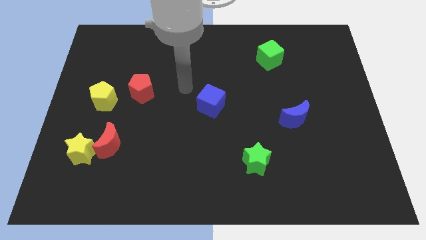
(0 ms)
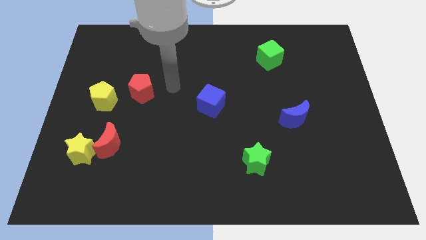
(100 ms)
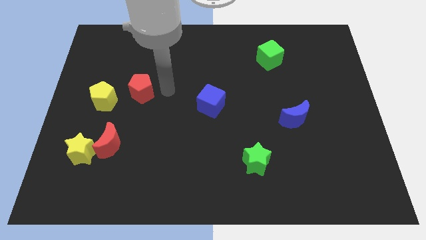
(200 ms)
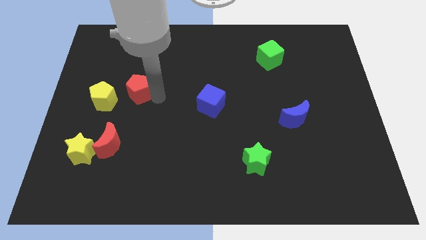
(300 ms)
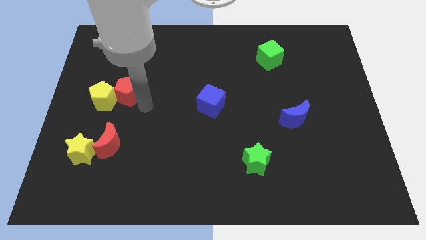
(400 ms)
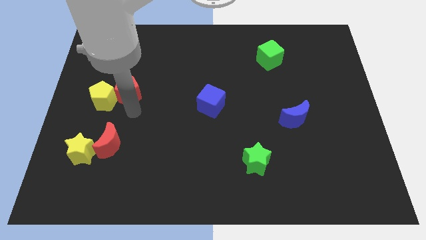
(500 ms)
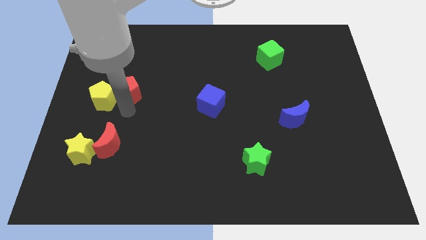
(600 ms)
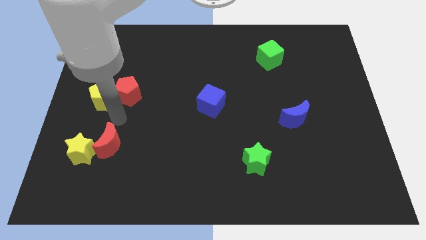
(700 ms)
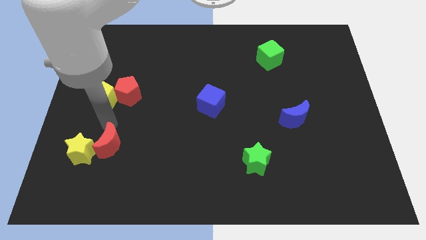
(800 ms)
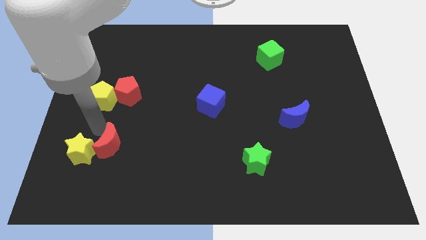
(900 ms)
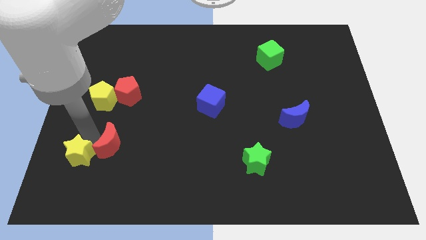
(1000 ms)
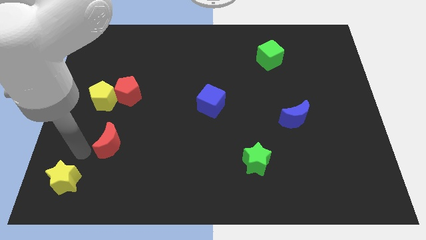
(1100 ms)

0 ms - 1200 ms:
move the red moon away from the yellow star

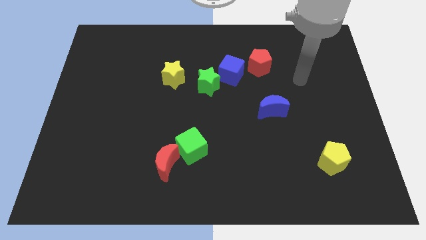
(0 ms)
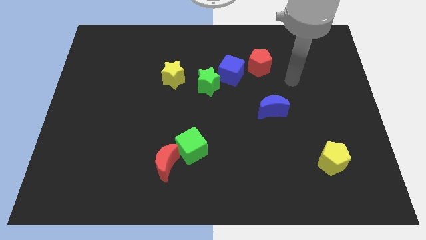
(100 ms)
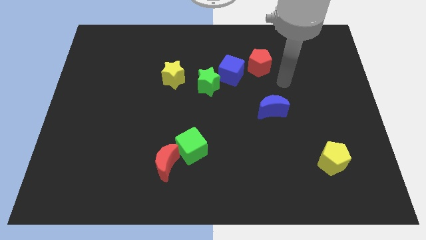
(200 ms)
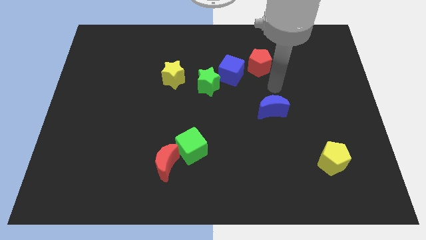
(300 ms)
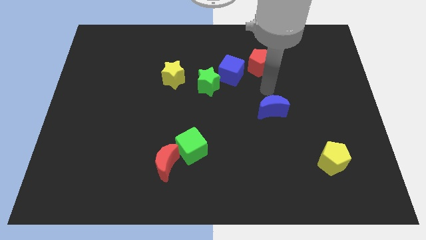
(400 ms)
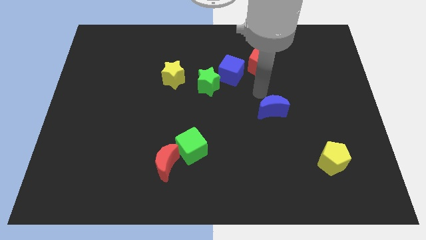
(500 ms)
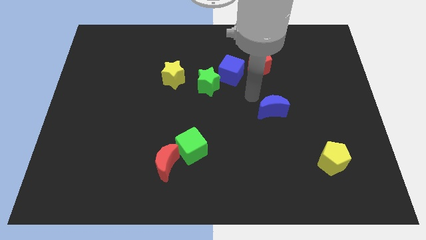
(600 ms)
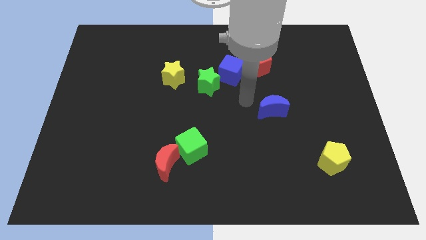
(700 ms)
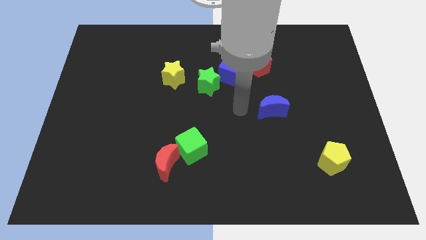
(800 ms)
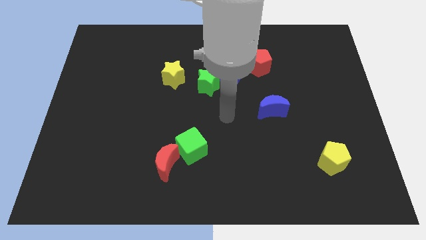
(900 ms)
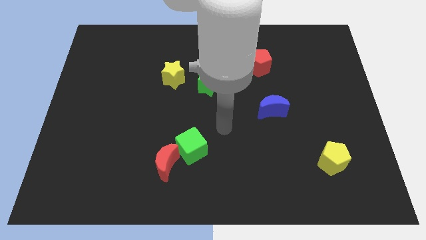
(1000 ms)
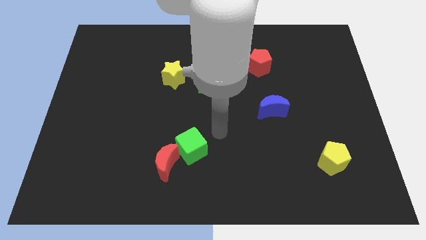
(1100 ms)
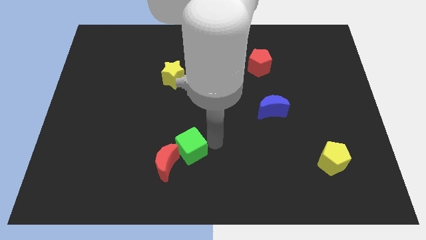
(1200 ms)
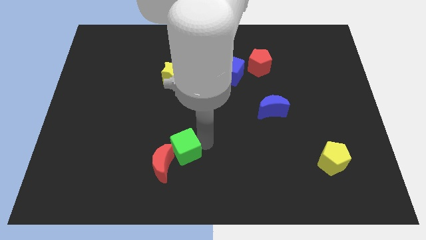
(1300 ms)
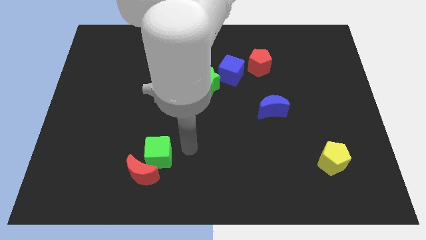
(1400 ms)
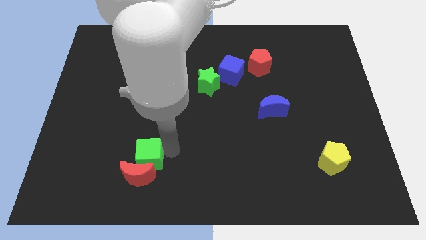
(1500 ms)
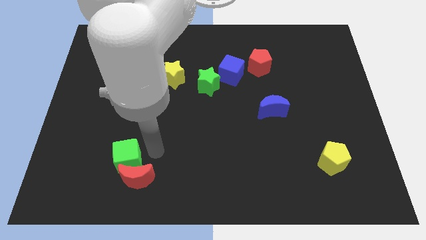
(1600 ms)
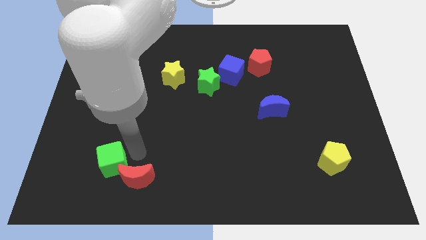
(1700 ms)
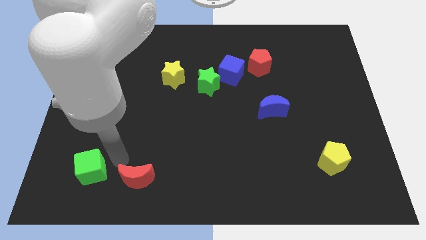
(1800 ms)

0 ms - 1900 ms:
pull the red moon apart from the green cube

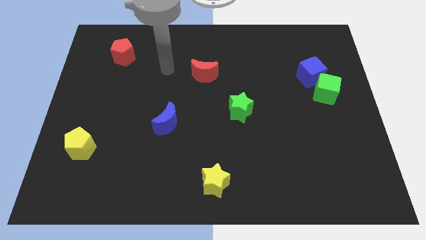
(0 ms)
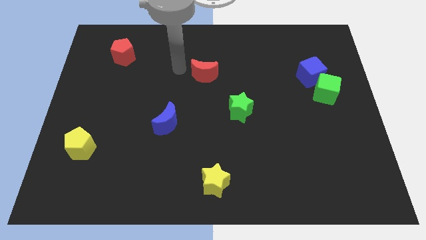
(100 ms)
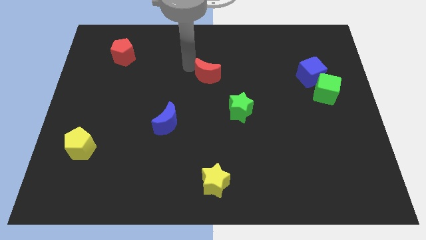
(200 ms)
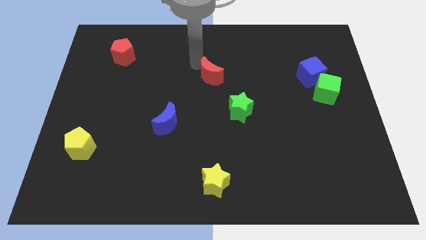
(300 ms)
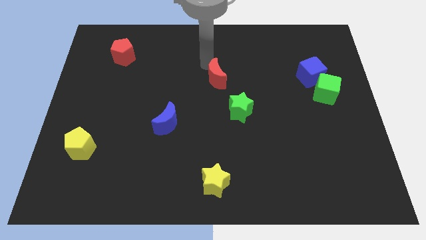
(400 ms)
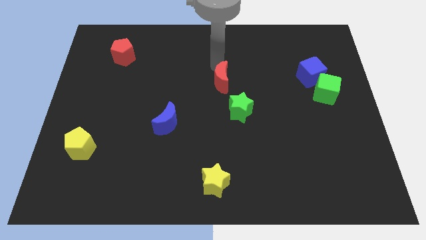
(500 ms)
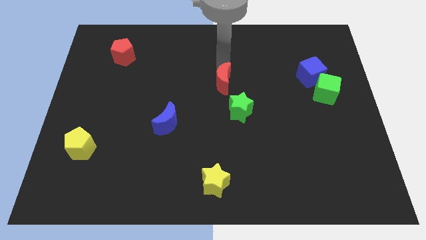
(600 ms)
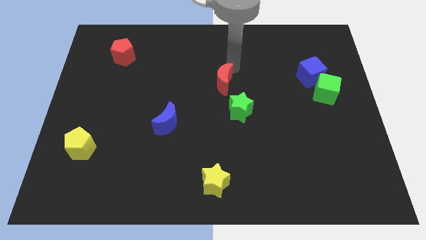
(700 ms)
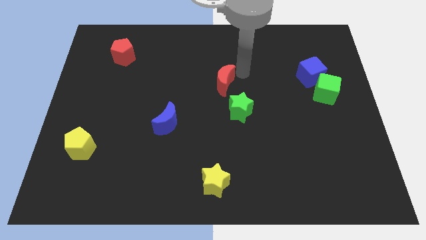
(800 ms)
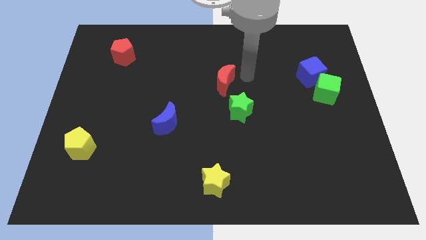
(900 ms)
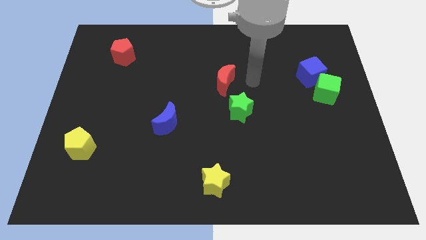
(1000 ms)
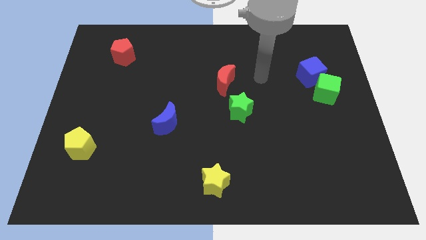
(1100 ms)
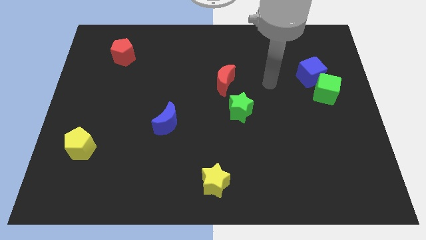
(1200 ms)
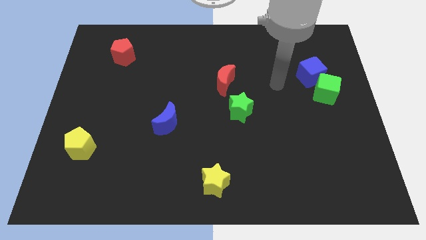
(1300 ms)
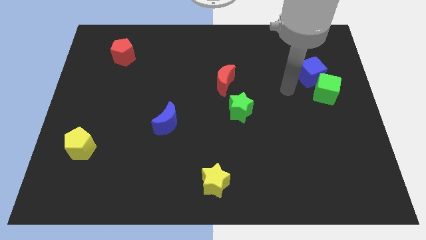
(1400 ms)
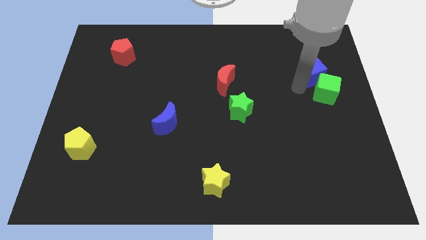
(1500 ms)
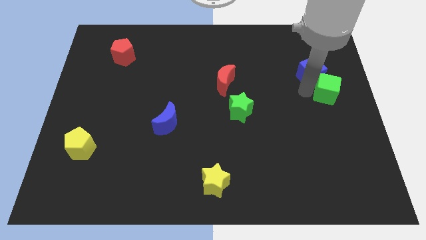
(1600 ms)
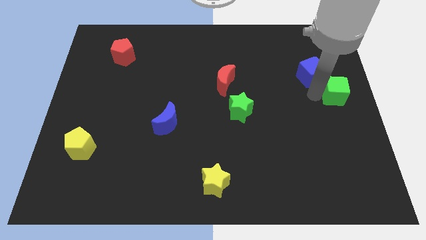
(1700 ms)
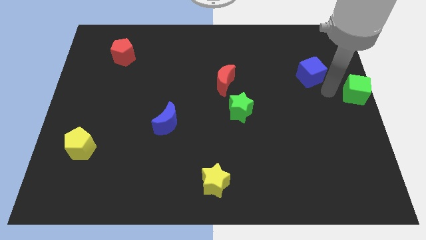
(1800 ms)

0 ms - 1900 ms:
pull the blue cube apart from the green cube

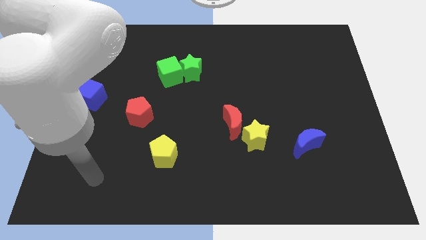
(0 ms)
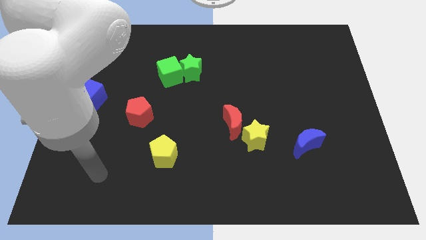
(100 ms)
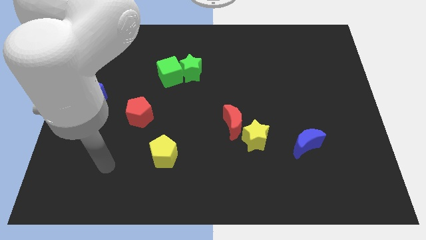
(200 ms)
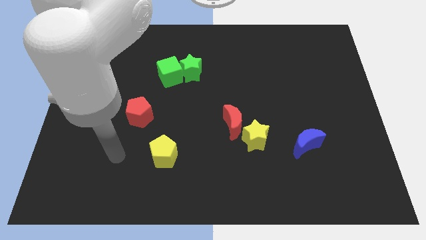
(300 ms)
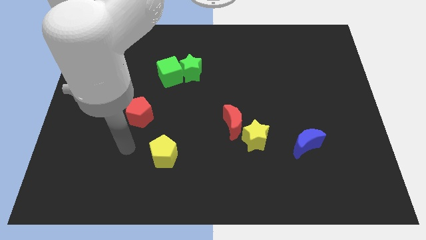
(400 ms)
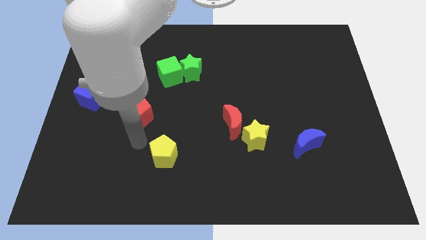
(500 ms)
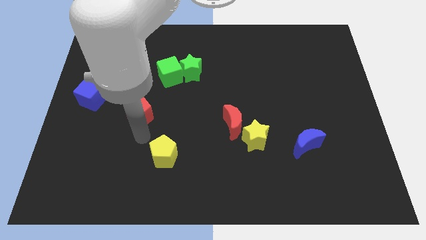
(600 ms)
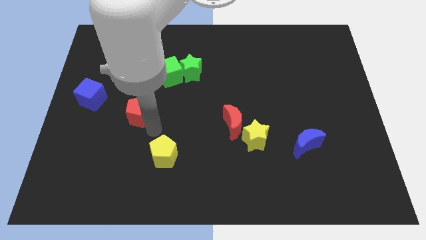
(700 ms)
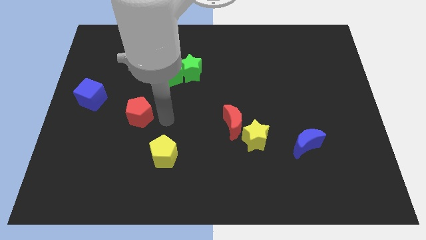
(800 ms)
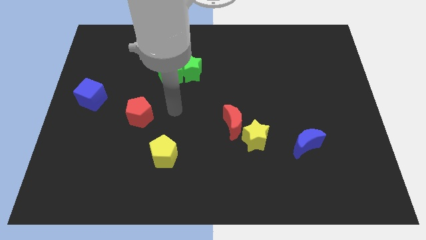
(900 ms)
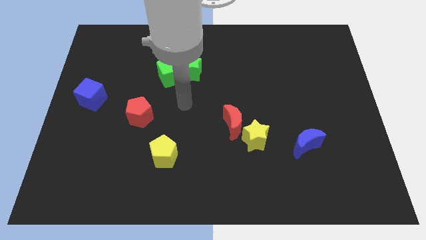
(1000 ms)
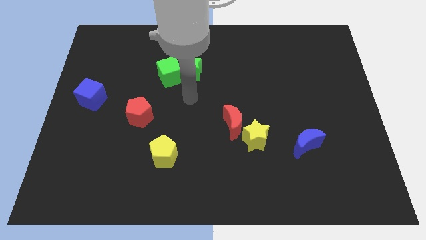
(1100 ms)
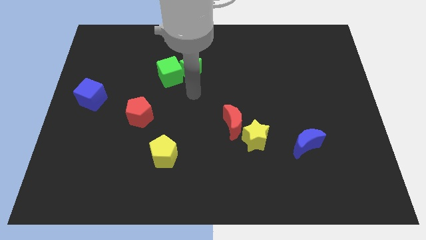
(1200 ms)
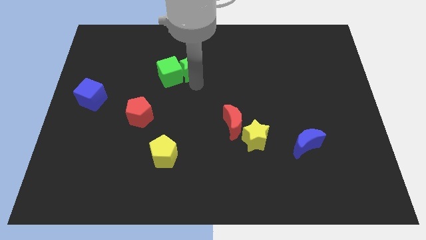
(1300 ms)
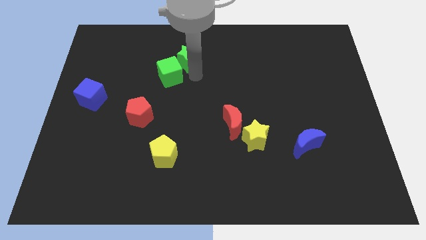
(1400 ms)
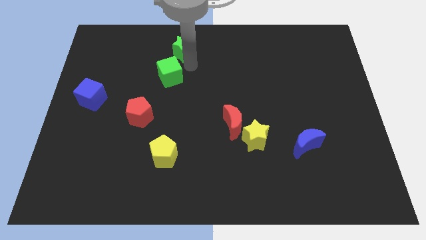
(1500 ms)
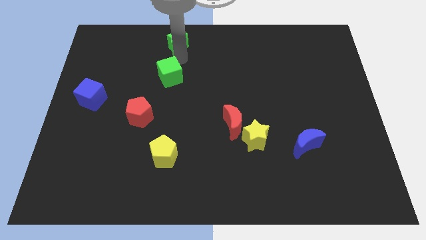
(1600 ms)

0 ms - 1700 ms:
separate the green cube from the green star

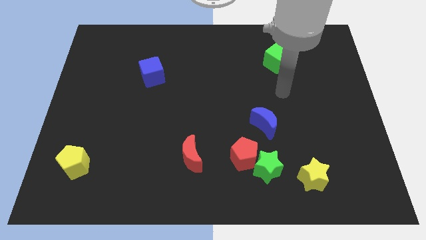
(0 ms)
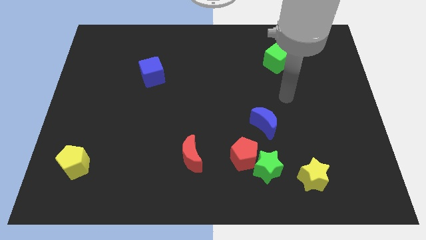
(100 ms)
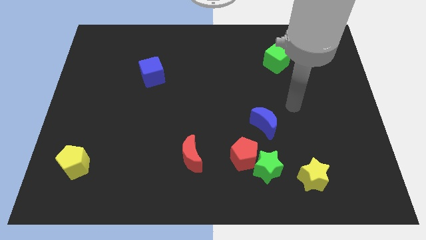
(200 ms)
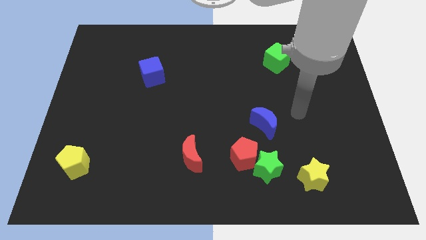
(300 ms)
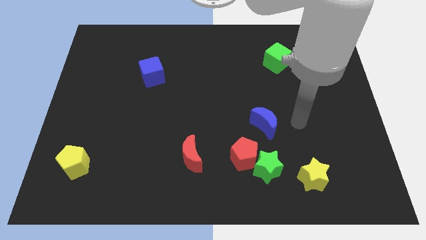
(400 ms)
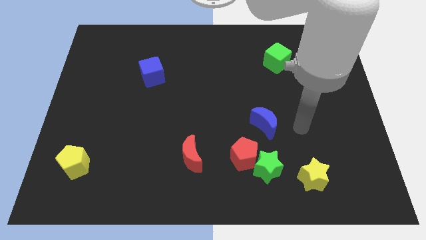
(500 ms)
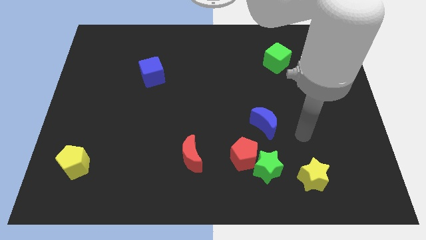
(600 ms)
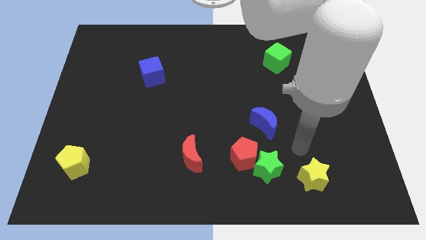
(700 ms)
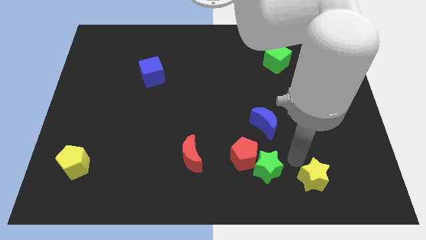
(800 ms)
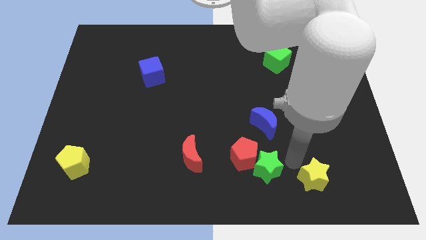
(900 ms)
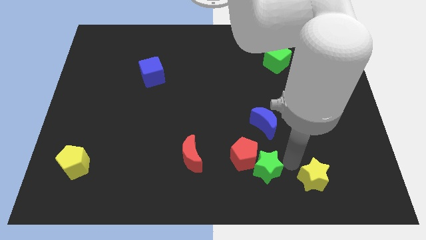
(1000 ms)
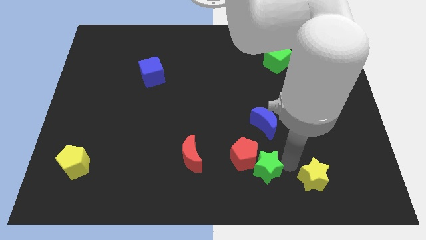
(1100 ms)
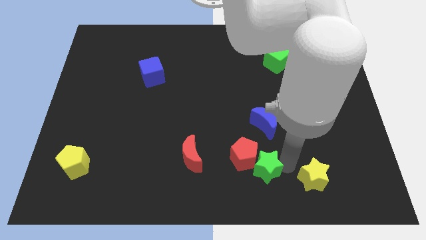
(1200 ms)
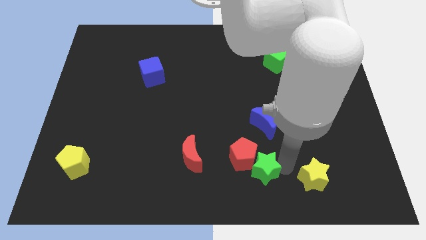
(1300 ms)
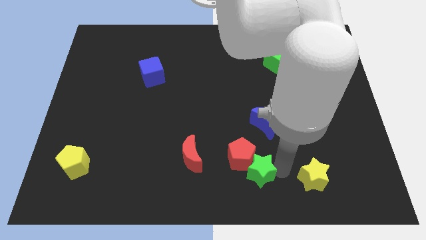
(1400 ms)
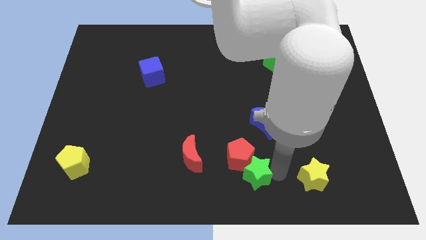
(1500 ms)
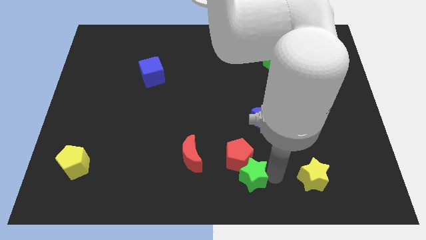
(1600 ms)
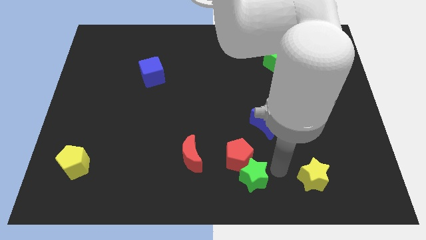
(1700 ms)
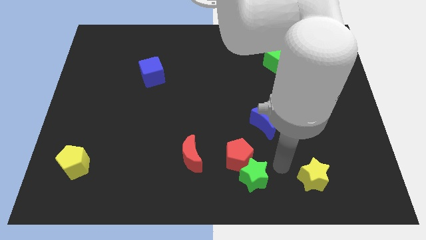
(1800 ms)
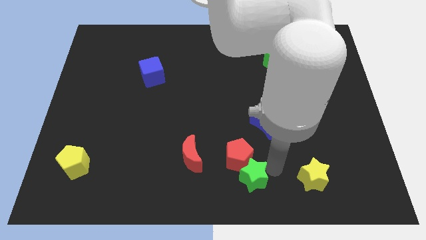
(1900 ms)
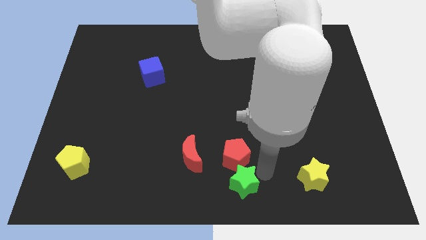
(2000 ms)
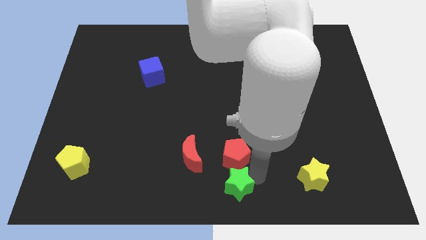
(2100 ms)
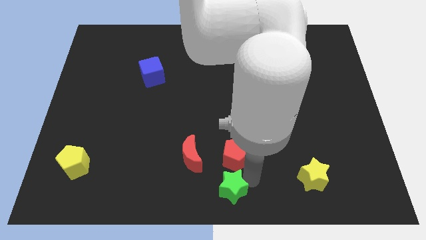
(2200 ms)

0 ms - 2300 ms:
pull the green star apart from the red pentagon and yellow star

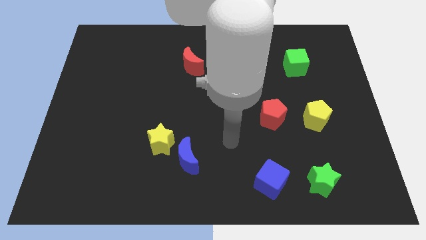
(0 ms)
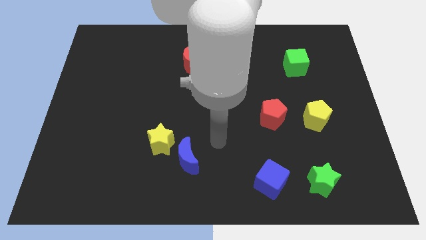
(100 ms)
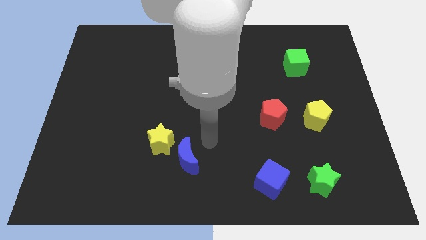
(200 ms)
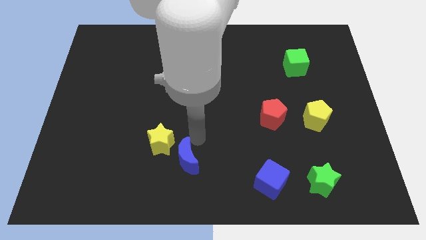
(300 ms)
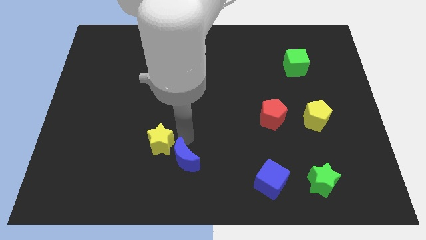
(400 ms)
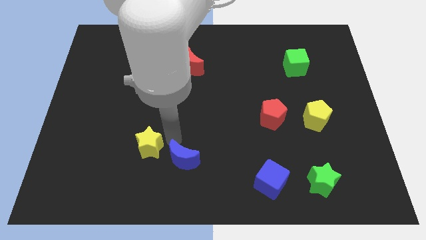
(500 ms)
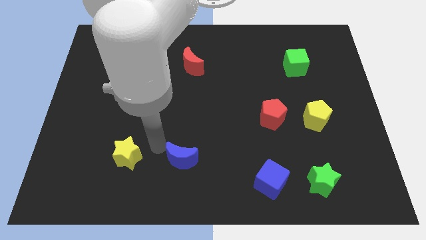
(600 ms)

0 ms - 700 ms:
pull the blue moon apart from the yellow star
